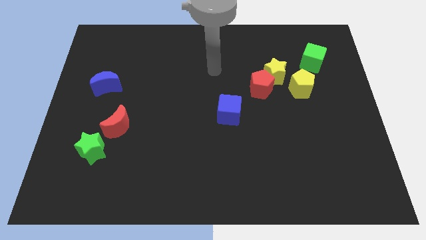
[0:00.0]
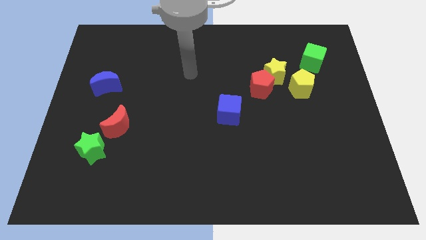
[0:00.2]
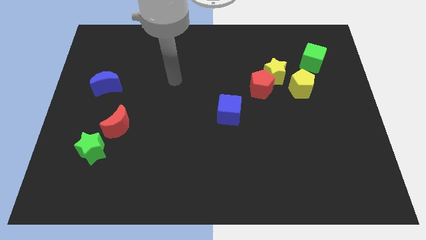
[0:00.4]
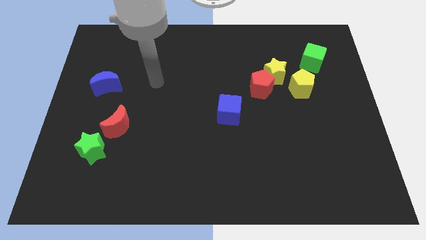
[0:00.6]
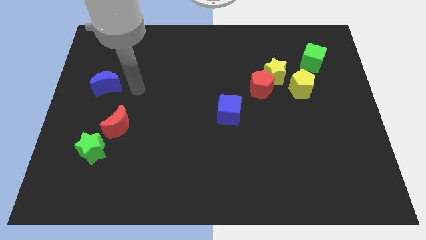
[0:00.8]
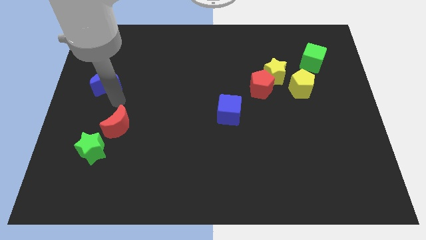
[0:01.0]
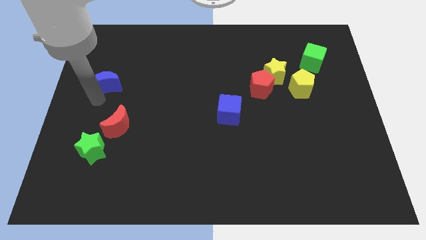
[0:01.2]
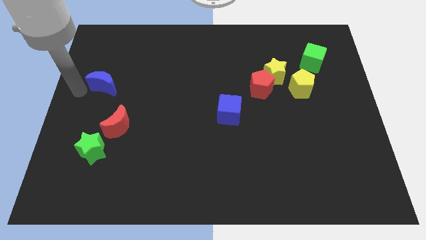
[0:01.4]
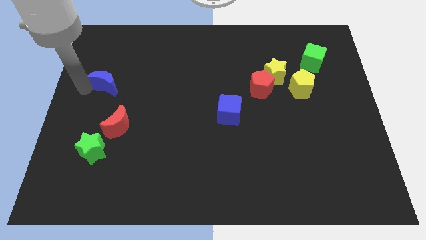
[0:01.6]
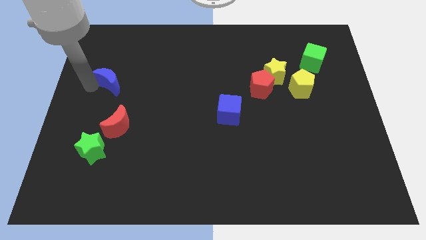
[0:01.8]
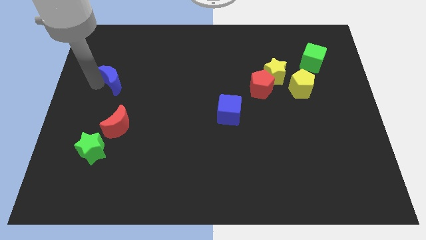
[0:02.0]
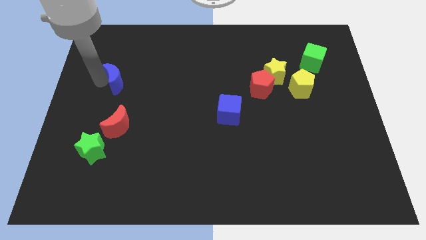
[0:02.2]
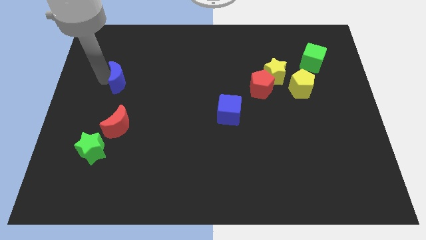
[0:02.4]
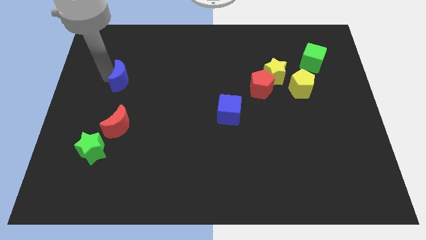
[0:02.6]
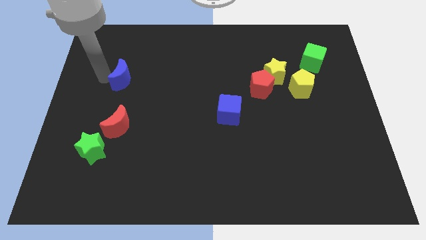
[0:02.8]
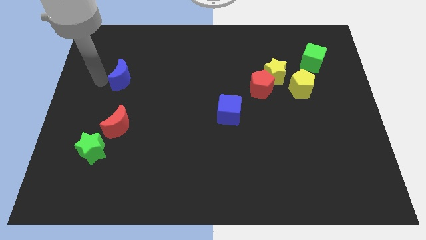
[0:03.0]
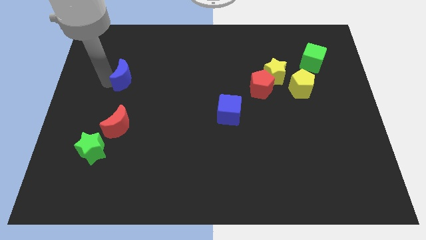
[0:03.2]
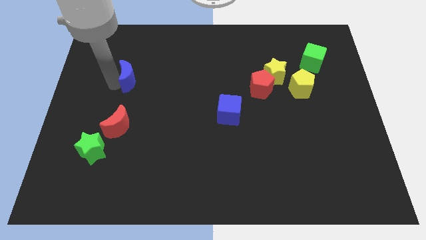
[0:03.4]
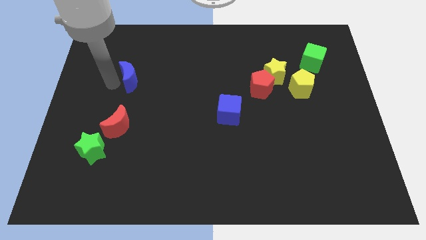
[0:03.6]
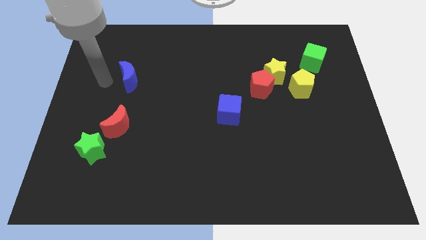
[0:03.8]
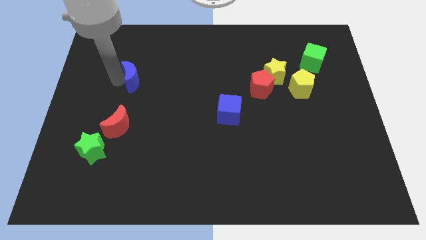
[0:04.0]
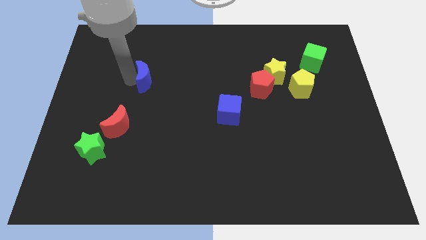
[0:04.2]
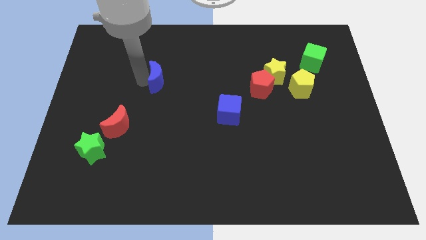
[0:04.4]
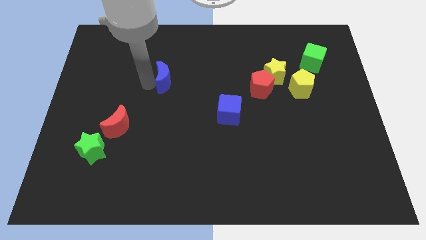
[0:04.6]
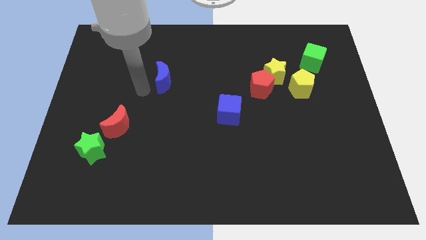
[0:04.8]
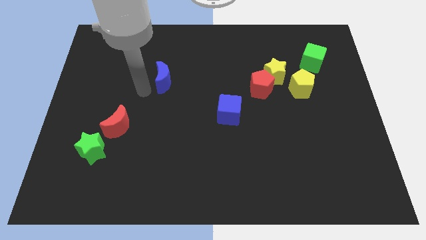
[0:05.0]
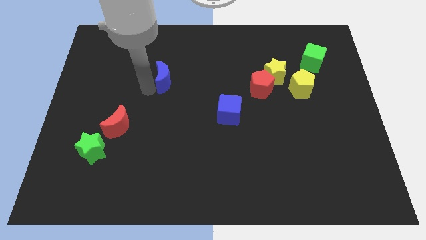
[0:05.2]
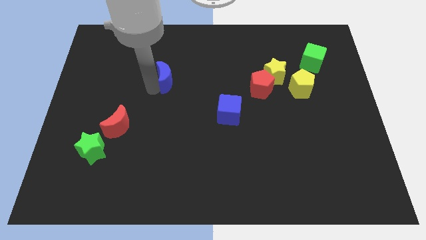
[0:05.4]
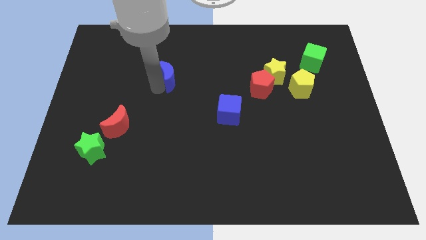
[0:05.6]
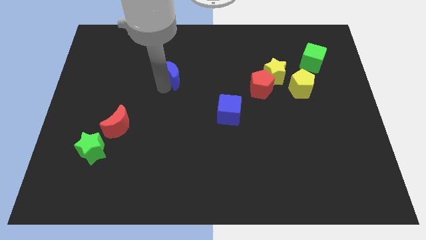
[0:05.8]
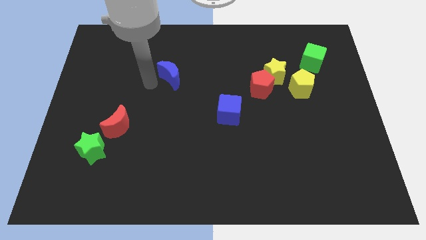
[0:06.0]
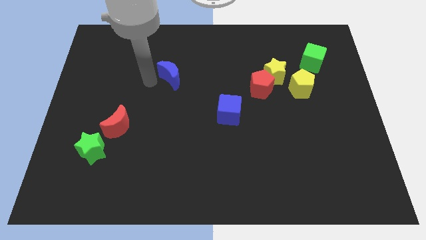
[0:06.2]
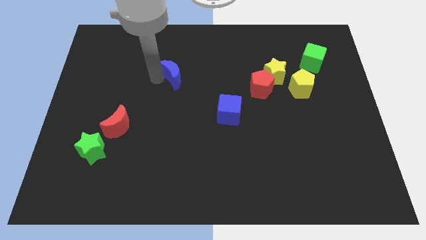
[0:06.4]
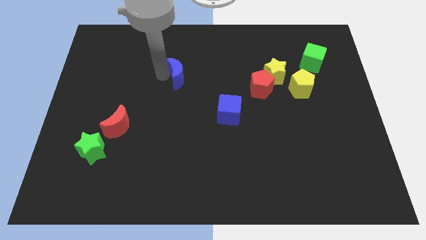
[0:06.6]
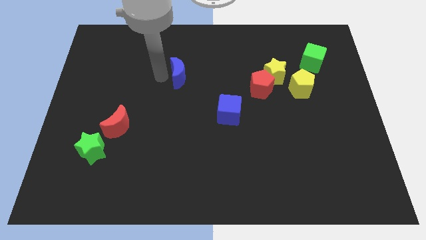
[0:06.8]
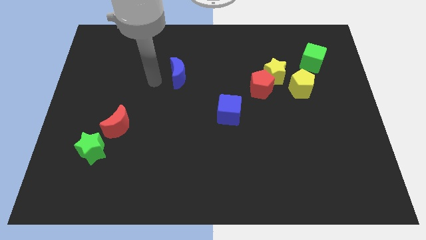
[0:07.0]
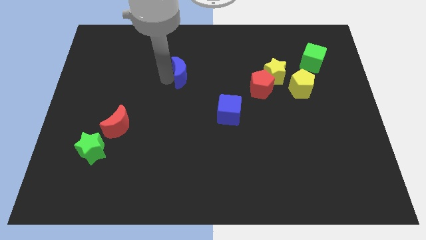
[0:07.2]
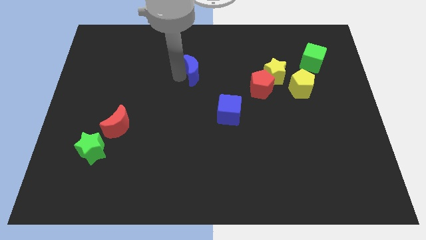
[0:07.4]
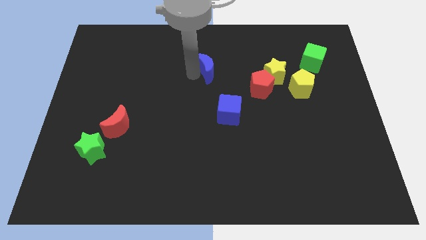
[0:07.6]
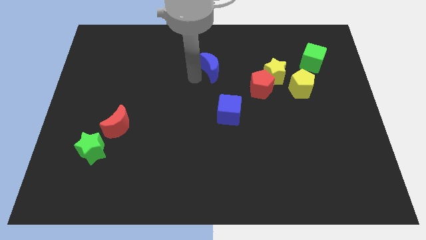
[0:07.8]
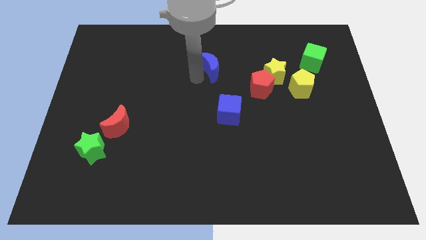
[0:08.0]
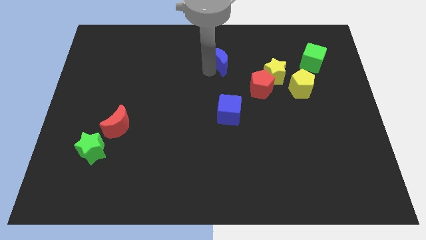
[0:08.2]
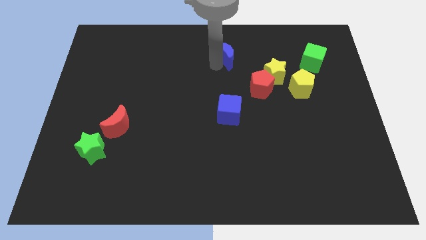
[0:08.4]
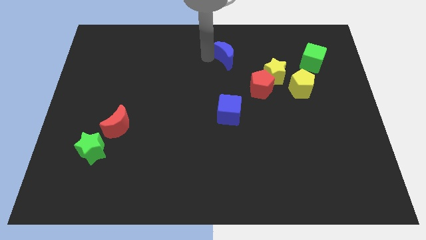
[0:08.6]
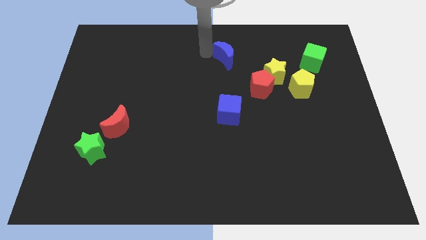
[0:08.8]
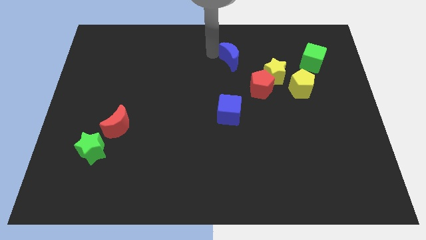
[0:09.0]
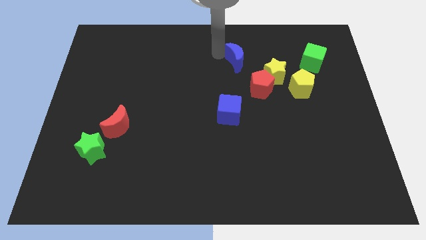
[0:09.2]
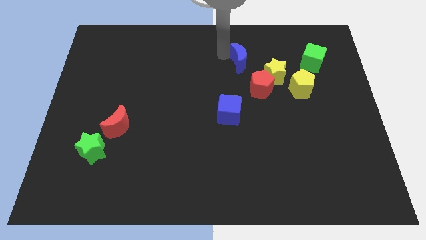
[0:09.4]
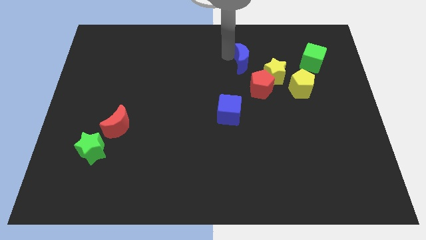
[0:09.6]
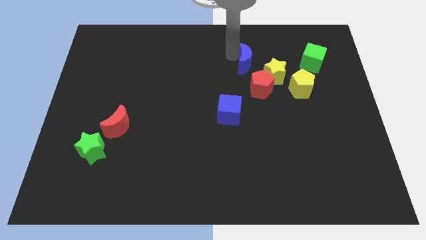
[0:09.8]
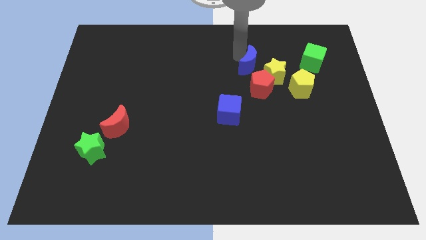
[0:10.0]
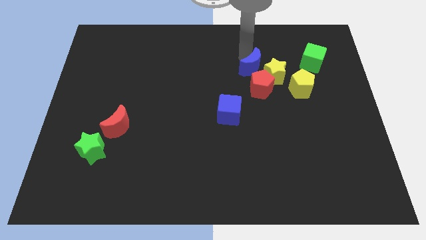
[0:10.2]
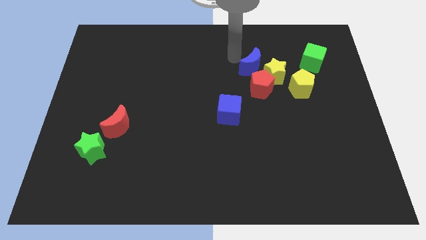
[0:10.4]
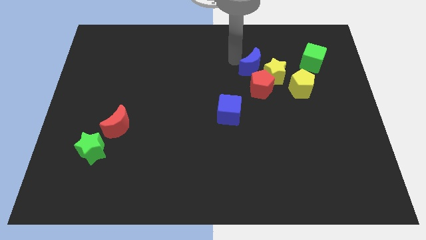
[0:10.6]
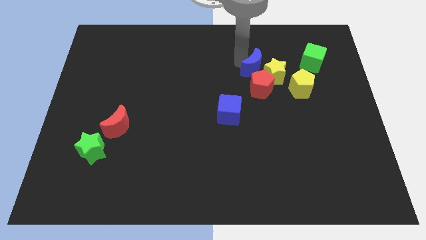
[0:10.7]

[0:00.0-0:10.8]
put the blue moon towards the yellow star

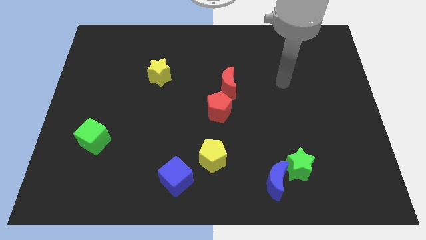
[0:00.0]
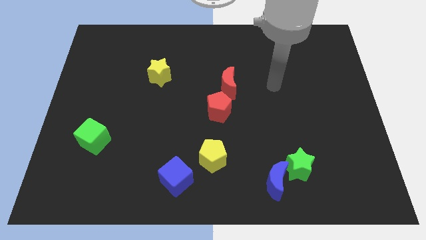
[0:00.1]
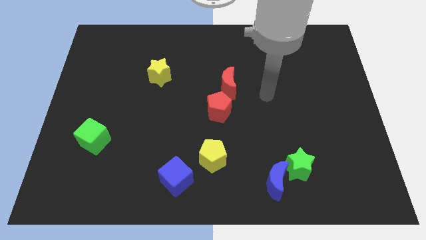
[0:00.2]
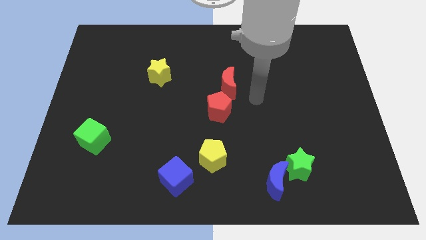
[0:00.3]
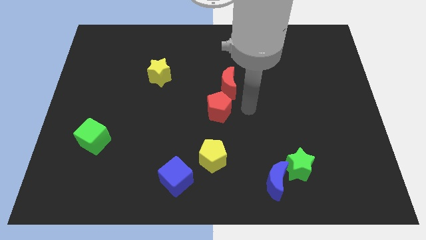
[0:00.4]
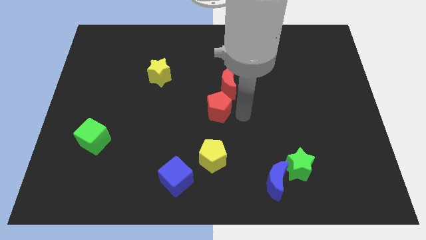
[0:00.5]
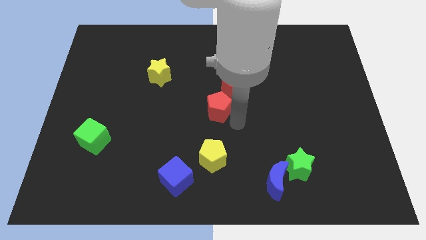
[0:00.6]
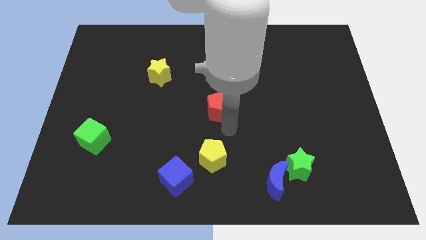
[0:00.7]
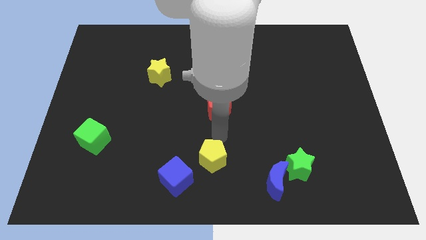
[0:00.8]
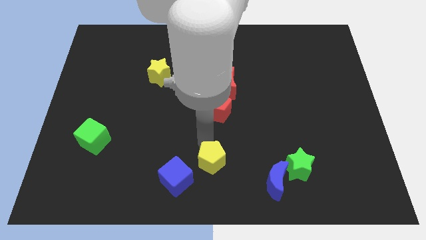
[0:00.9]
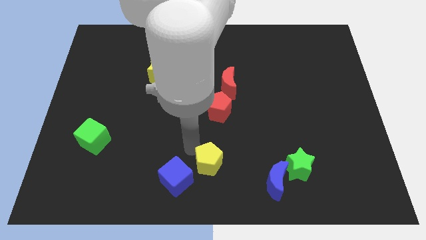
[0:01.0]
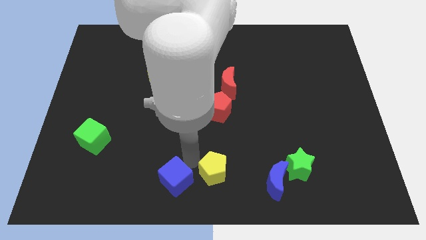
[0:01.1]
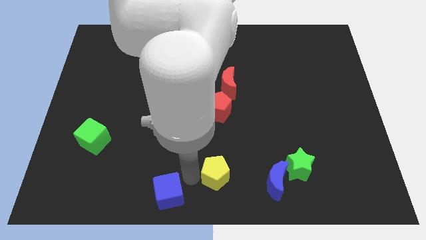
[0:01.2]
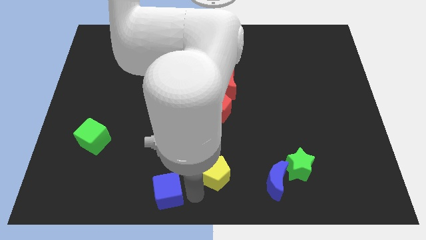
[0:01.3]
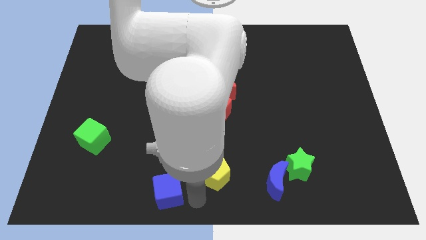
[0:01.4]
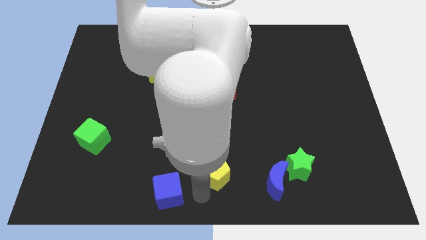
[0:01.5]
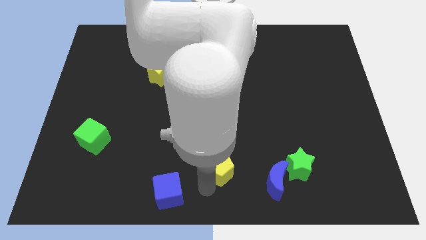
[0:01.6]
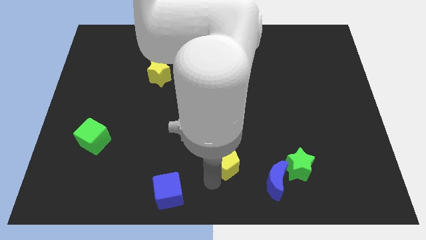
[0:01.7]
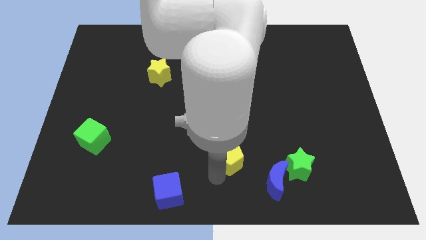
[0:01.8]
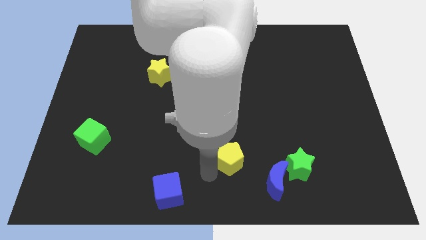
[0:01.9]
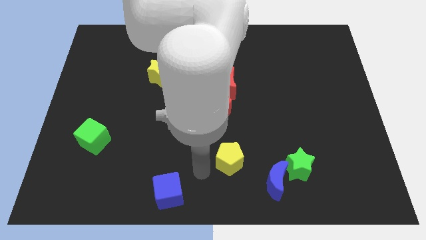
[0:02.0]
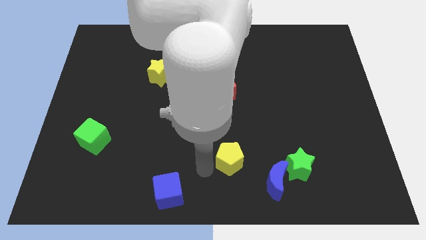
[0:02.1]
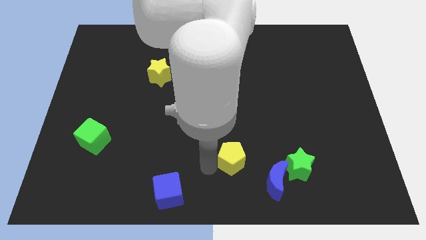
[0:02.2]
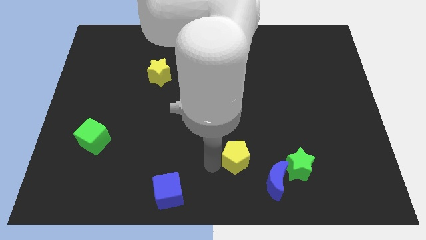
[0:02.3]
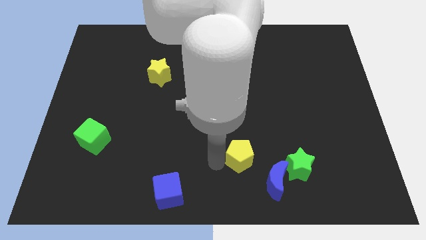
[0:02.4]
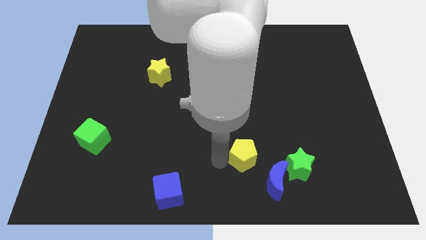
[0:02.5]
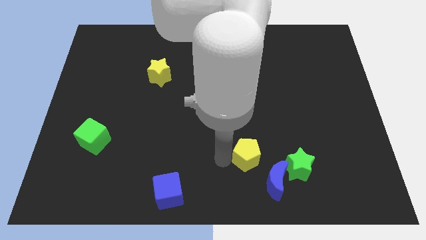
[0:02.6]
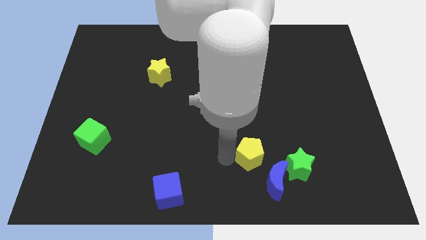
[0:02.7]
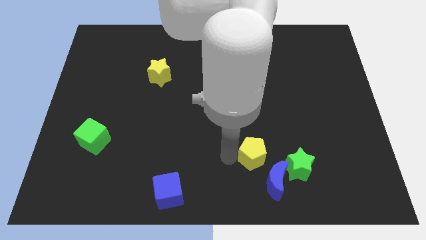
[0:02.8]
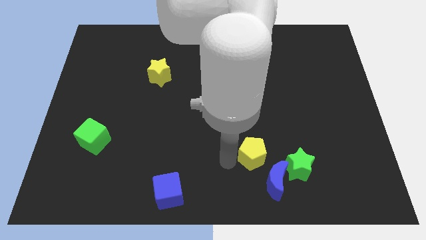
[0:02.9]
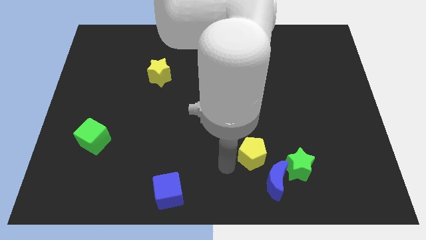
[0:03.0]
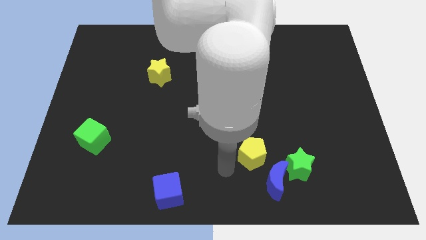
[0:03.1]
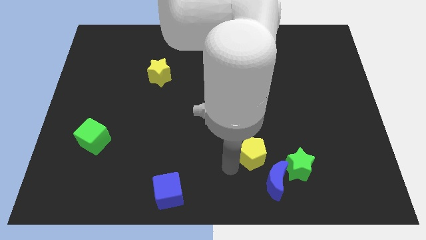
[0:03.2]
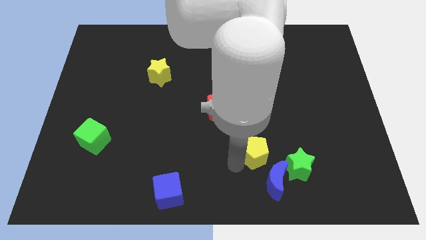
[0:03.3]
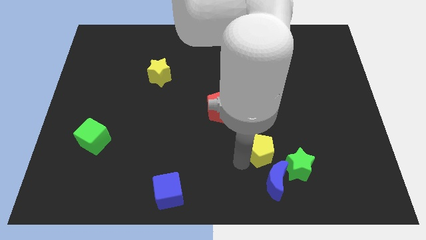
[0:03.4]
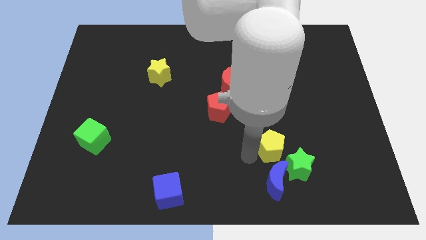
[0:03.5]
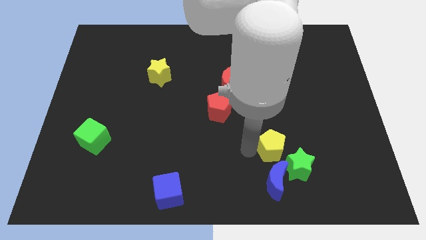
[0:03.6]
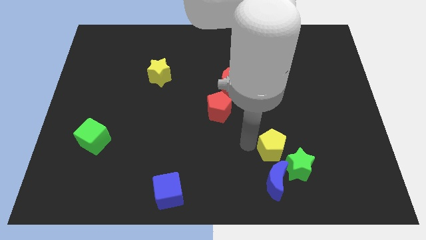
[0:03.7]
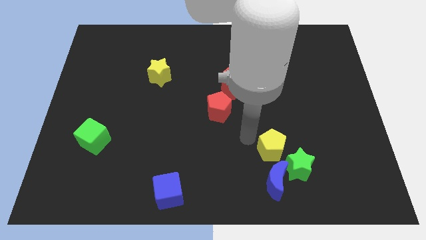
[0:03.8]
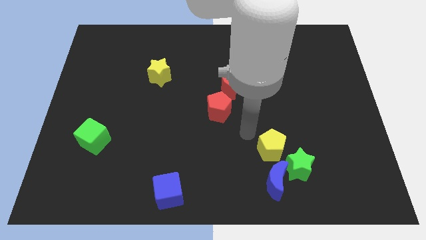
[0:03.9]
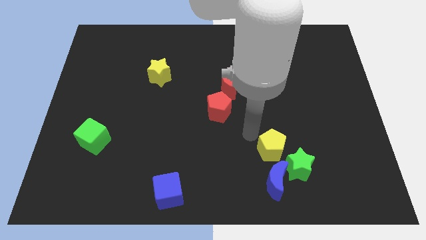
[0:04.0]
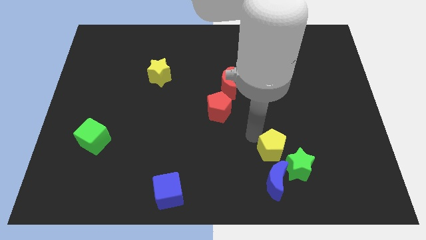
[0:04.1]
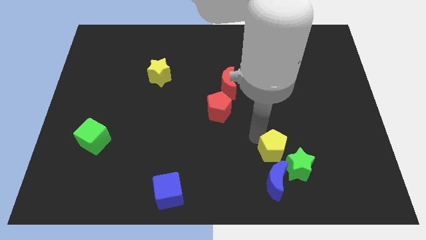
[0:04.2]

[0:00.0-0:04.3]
slide the yellow pentagon close to the green star
